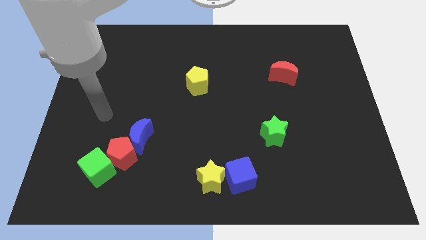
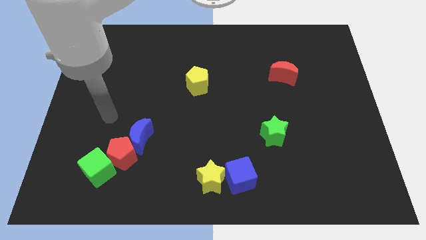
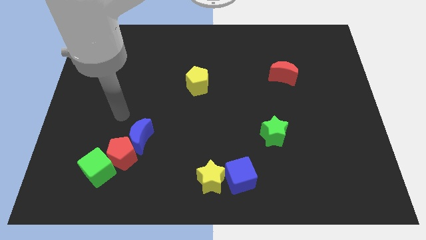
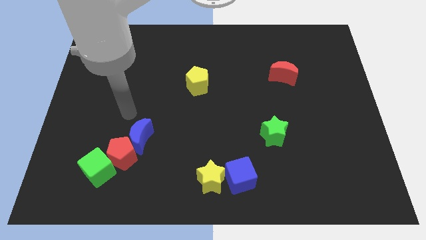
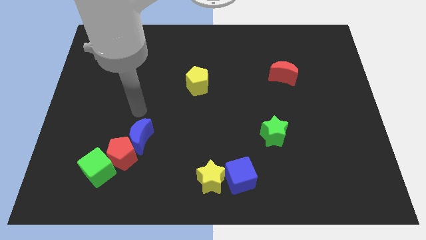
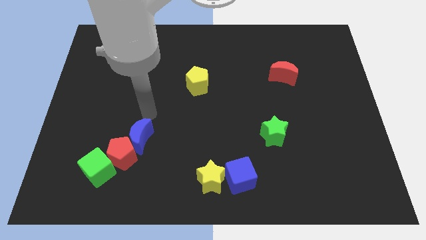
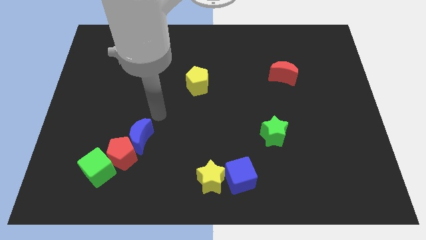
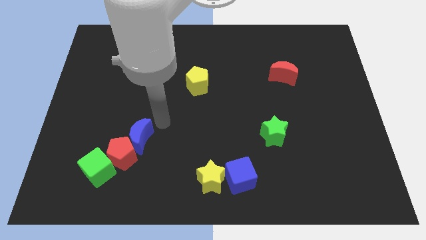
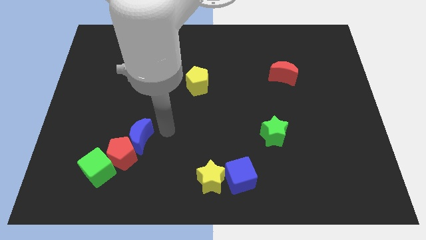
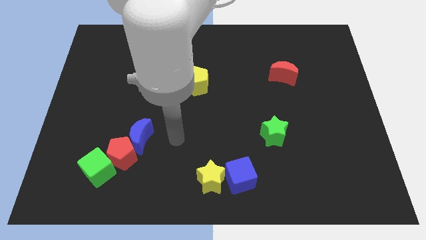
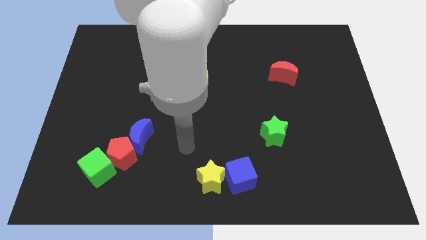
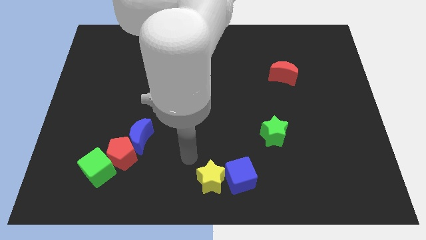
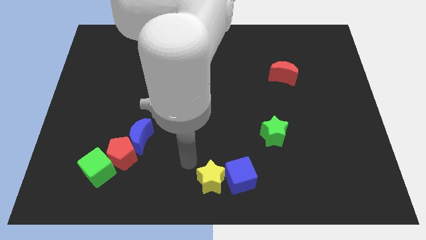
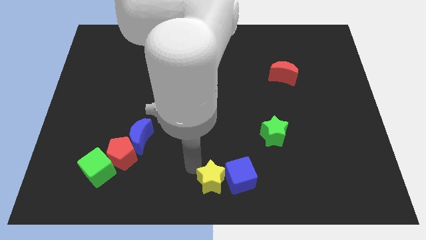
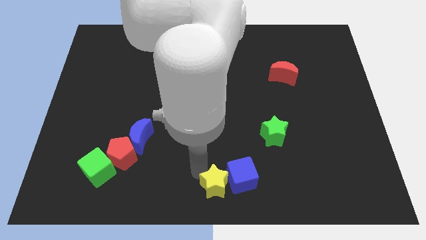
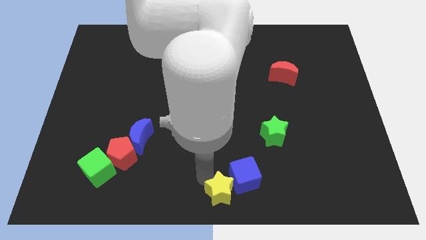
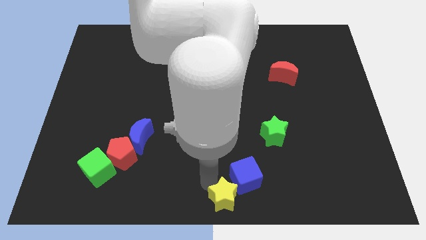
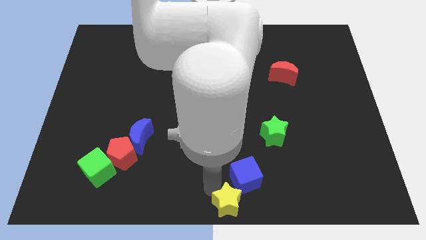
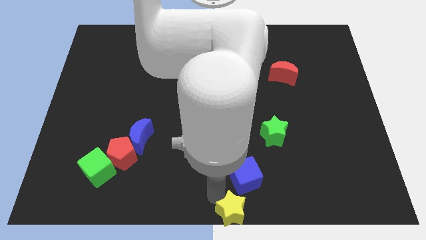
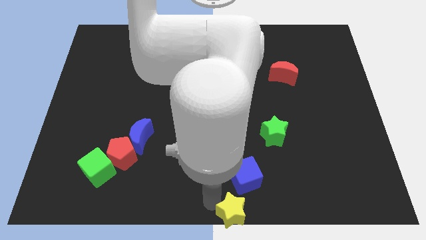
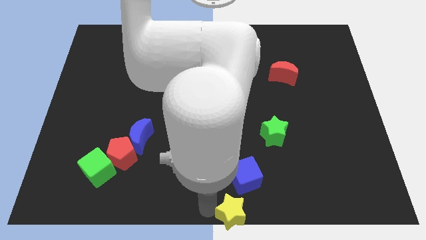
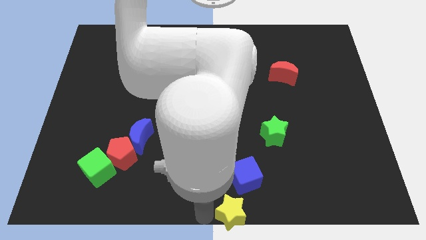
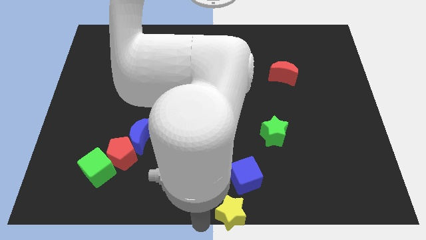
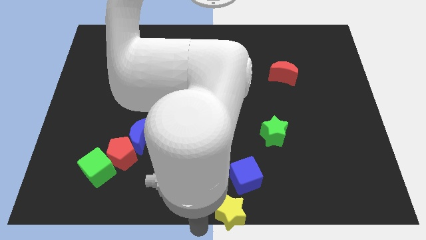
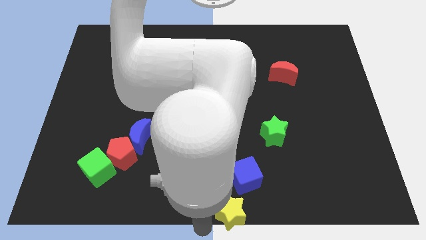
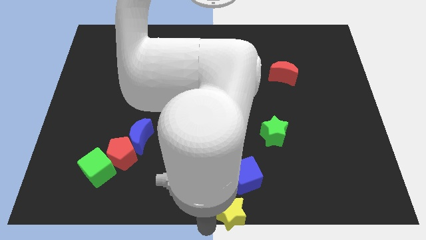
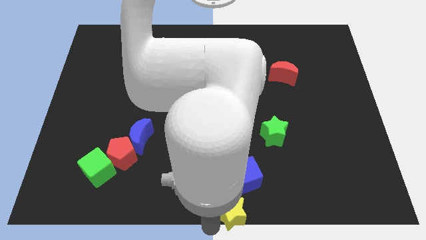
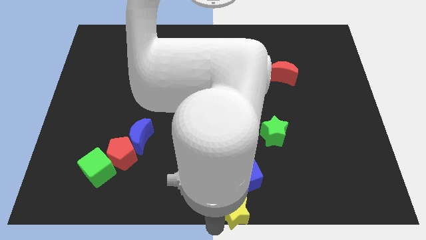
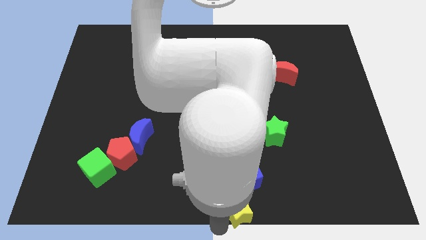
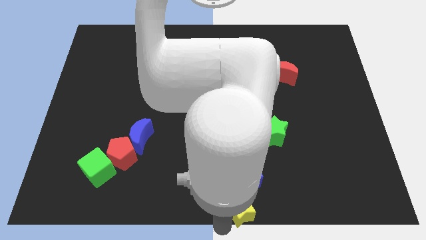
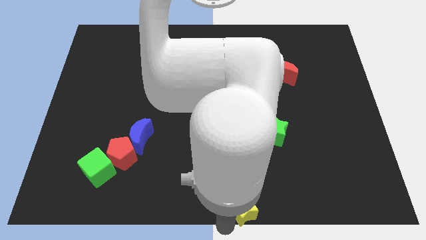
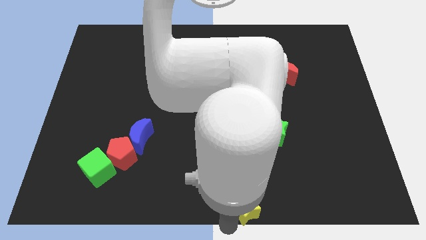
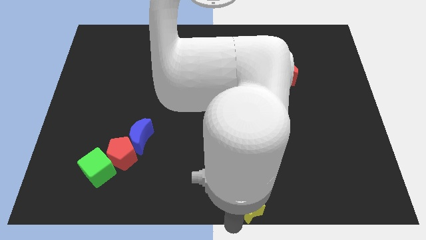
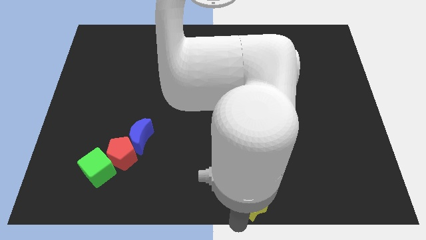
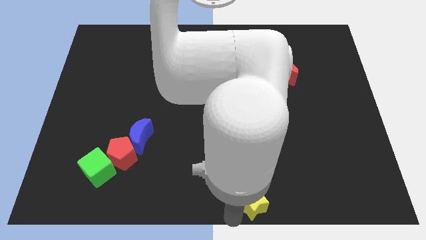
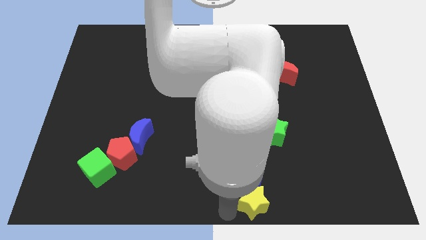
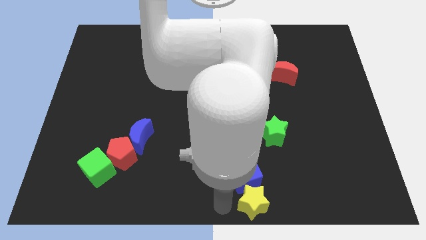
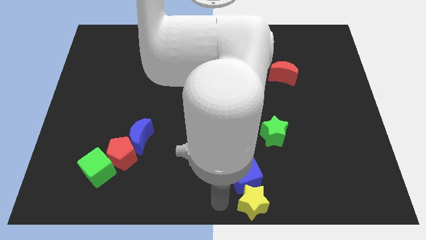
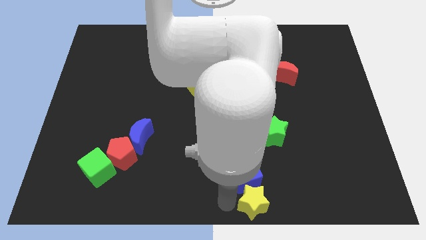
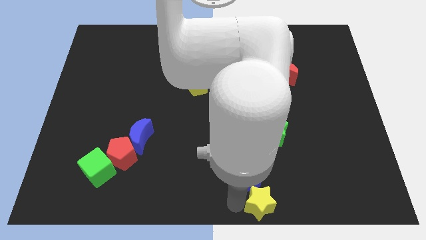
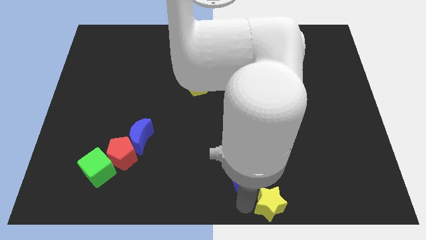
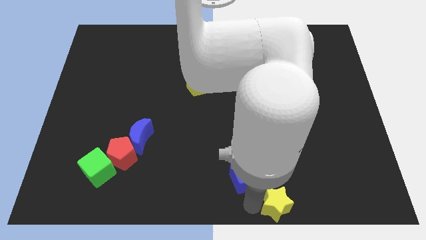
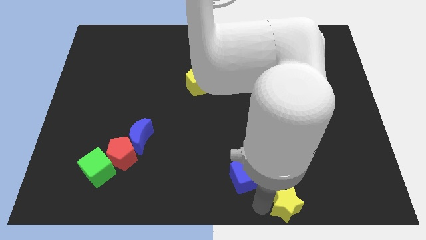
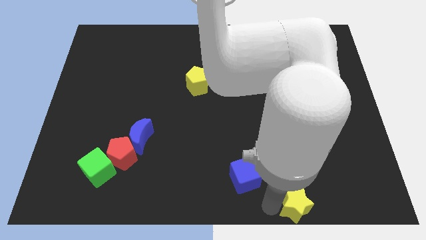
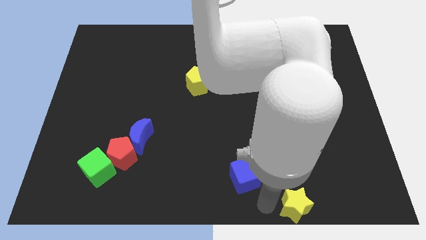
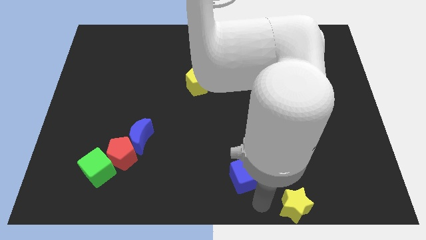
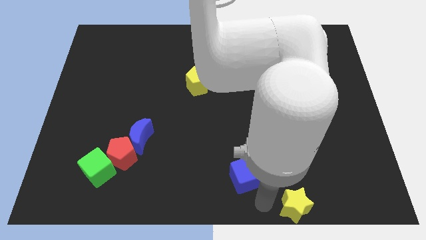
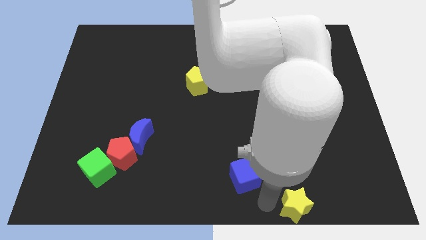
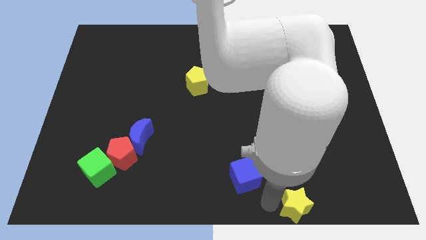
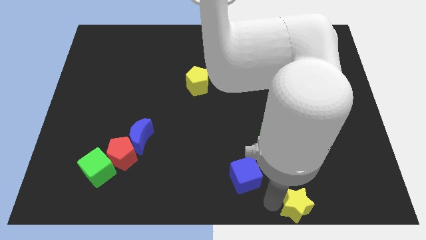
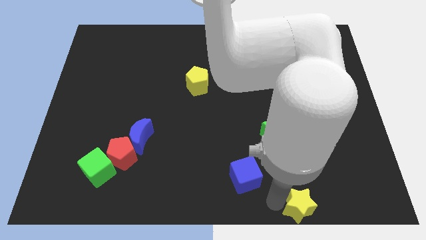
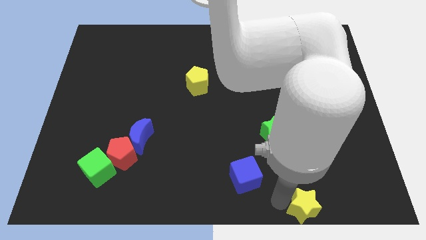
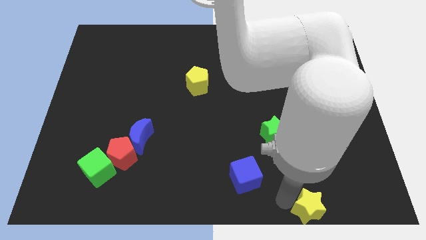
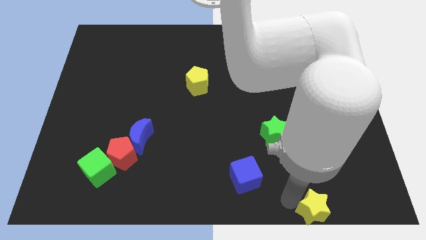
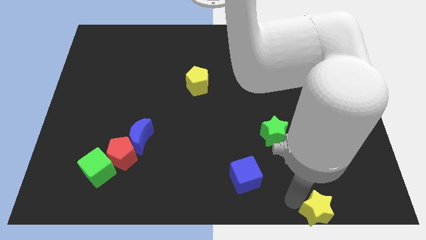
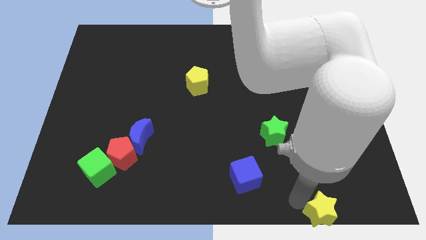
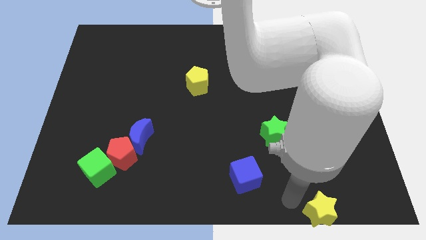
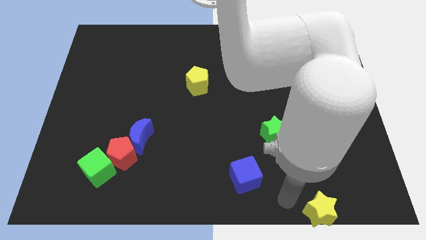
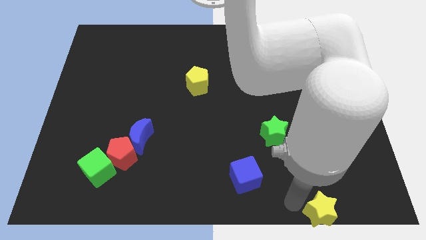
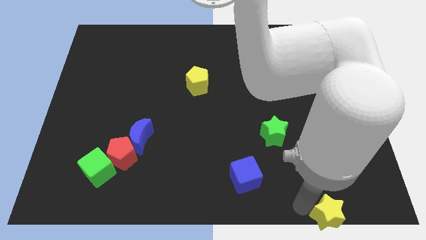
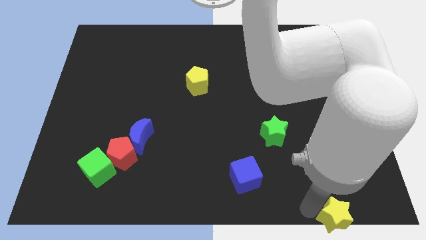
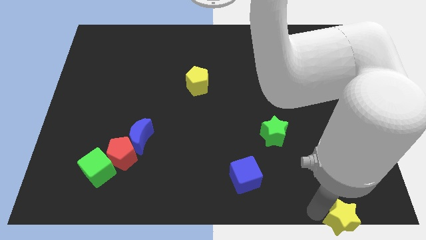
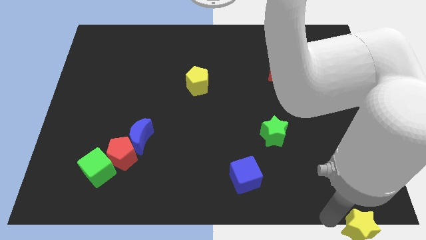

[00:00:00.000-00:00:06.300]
move the yellow star to the bottom right

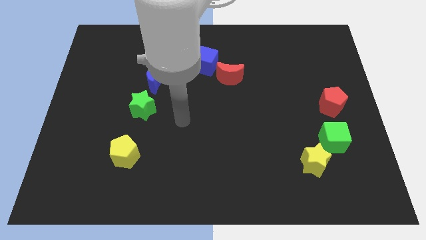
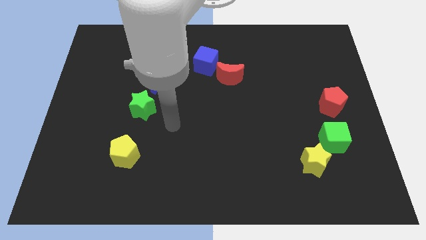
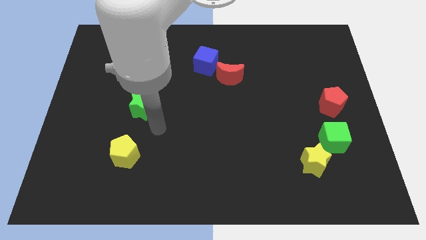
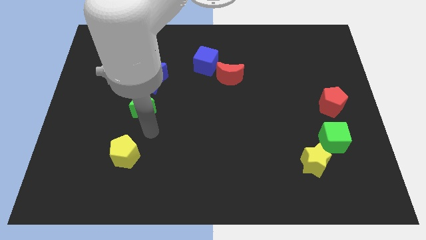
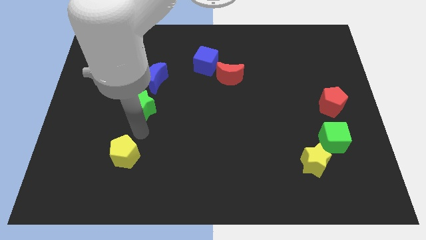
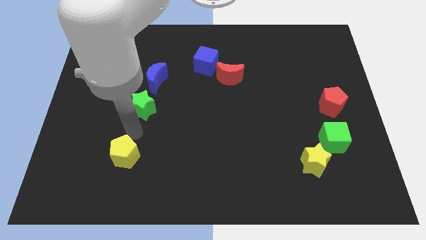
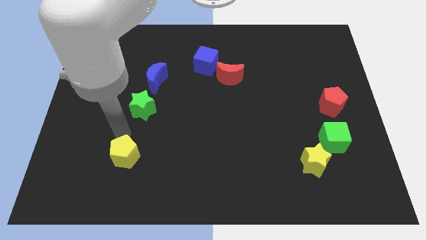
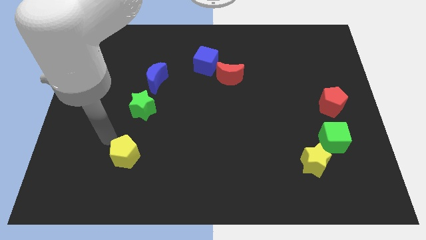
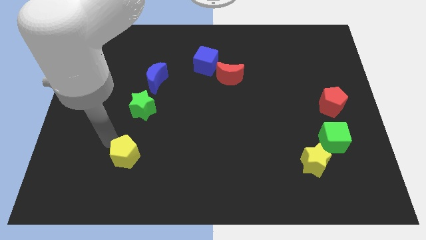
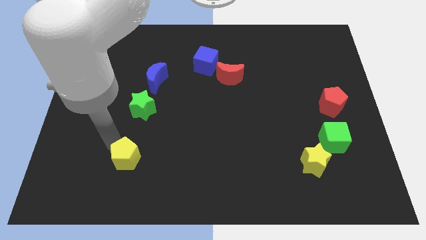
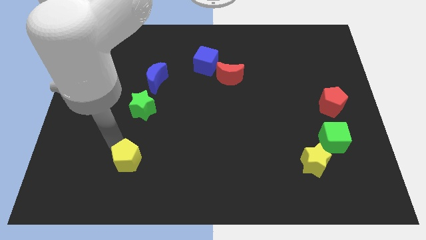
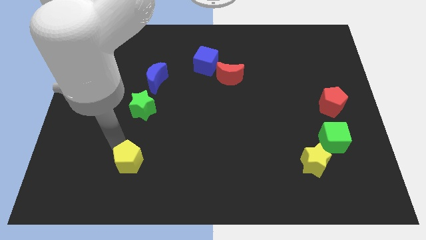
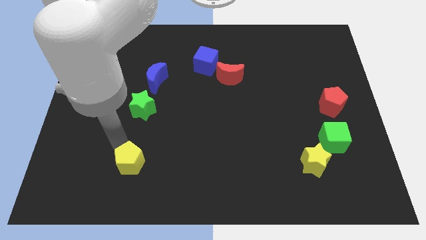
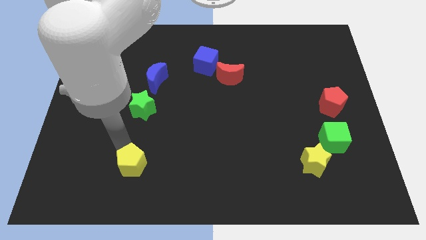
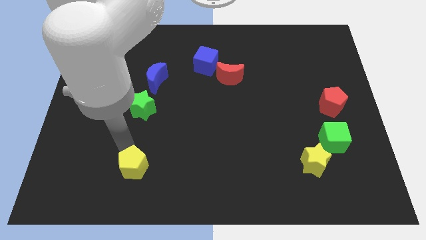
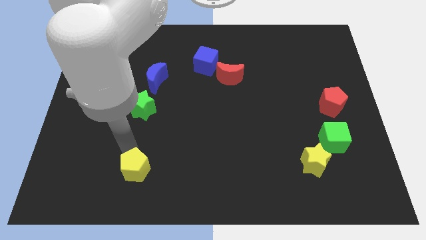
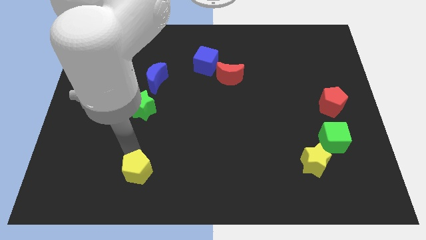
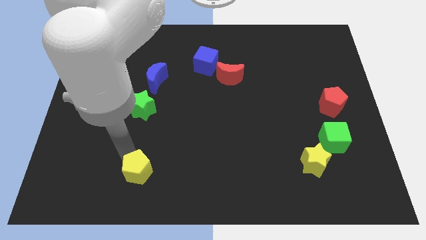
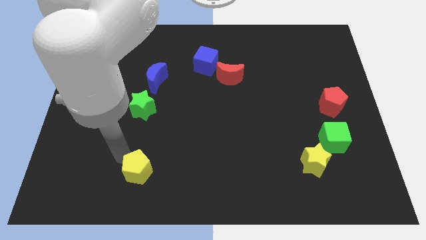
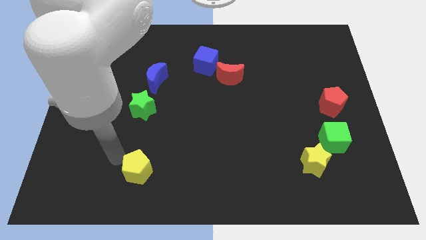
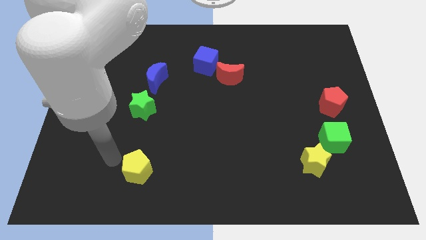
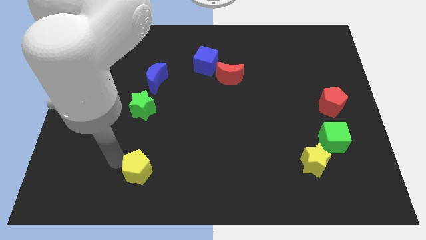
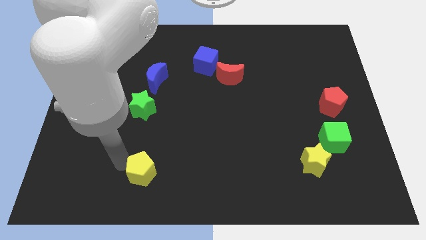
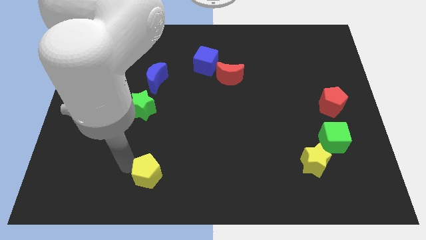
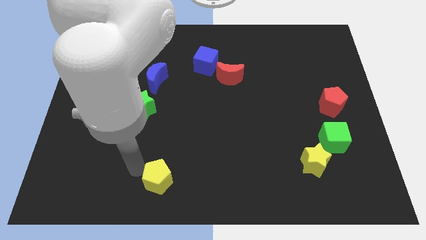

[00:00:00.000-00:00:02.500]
move the yellow pentagon to the bottom
